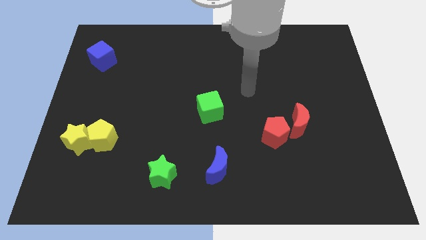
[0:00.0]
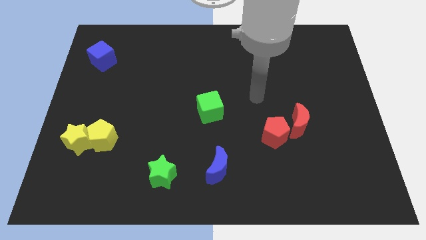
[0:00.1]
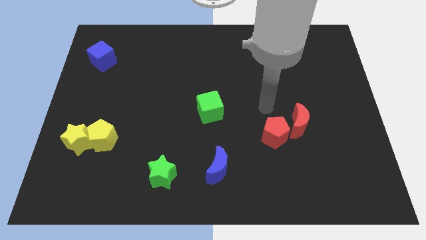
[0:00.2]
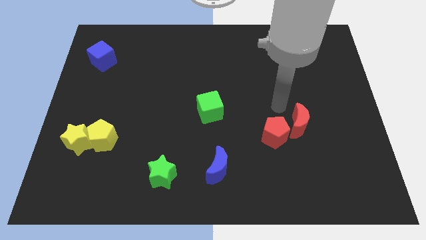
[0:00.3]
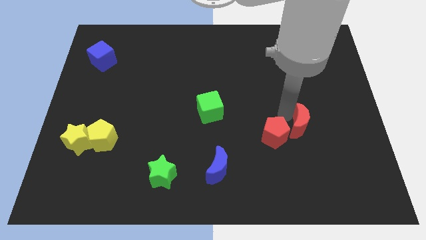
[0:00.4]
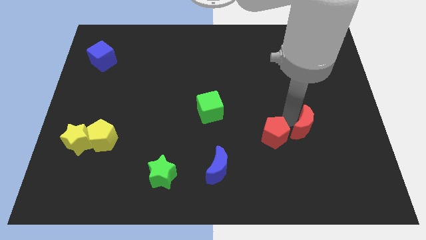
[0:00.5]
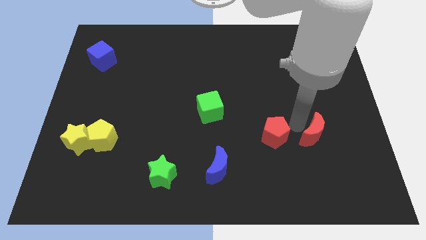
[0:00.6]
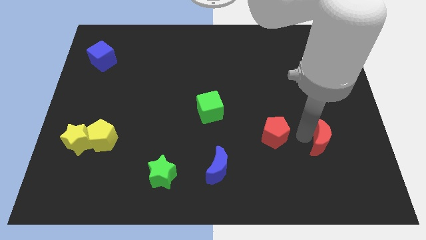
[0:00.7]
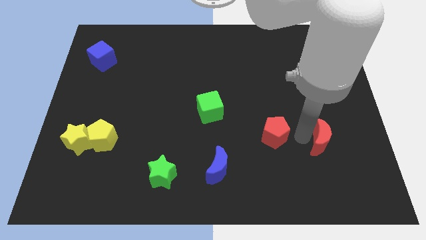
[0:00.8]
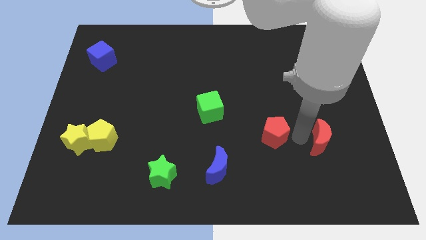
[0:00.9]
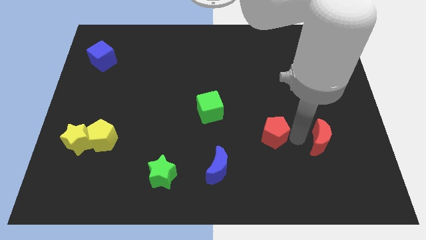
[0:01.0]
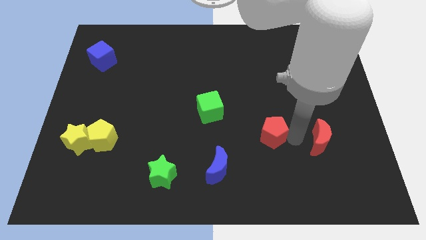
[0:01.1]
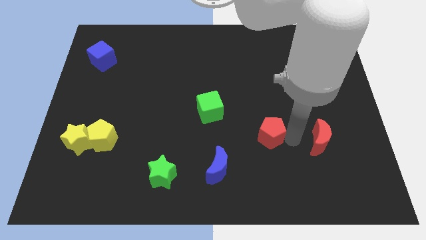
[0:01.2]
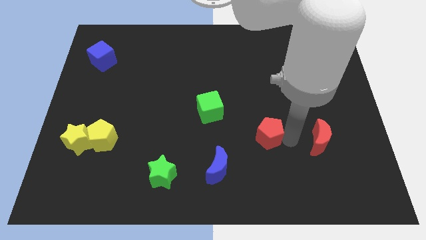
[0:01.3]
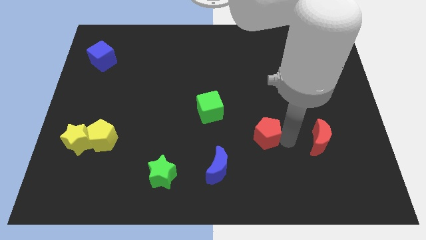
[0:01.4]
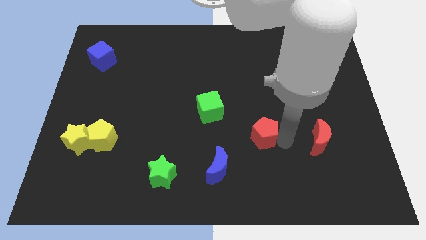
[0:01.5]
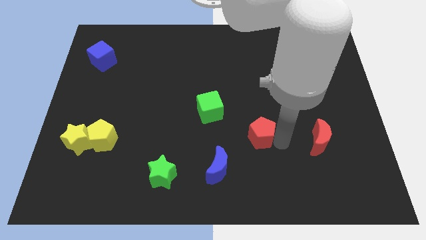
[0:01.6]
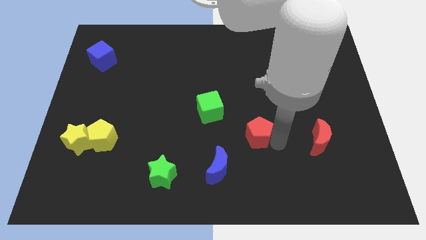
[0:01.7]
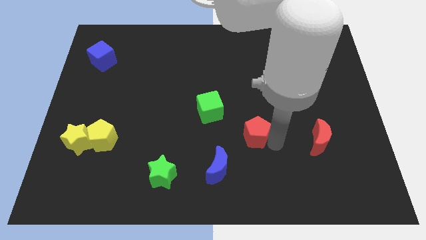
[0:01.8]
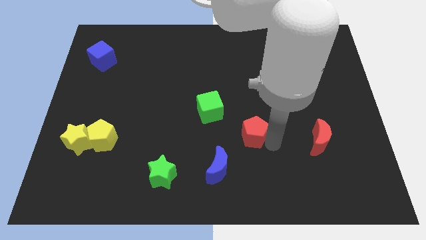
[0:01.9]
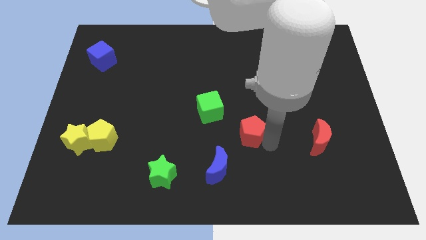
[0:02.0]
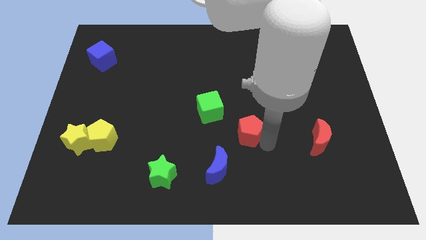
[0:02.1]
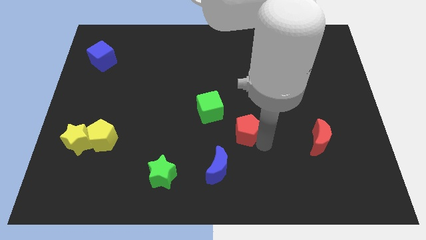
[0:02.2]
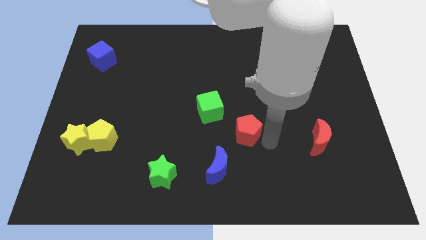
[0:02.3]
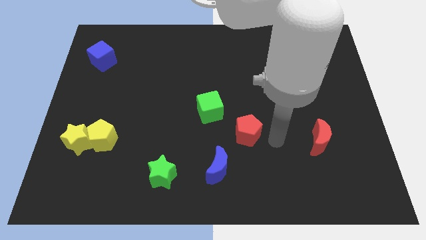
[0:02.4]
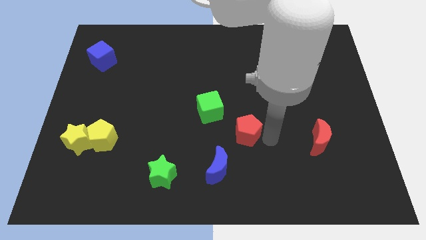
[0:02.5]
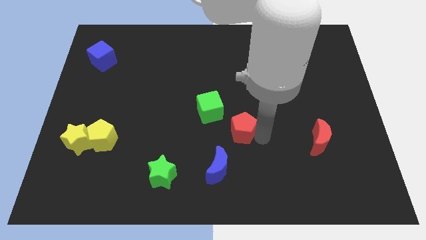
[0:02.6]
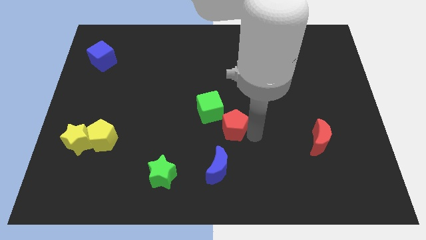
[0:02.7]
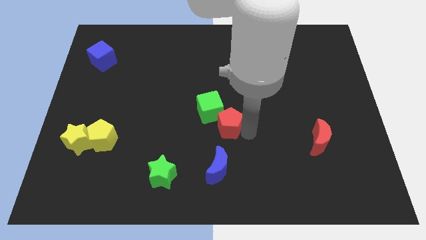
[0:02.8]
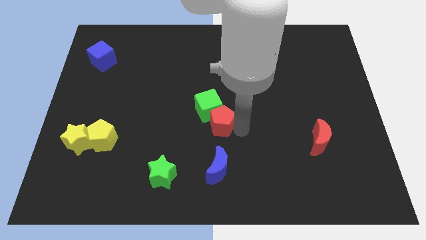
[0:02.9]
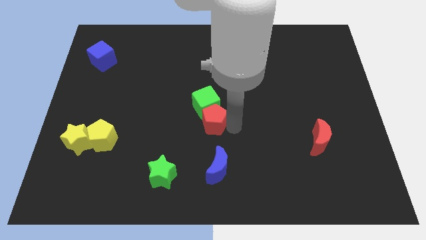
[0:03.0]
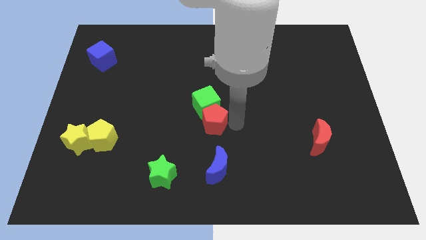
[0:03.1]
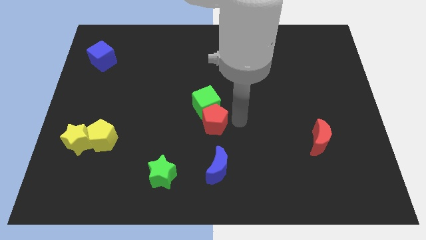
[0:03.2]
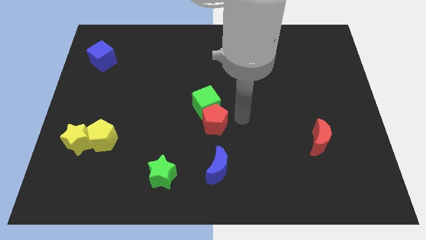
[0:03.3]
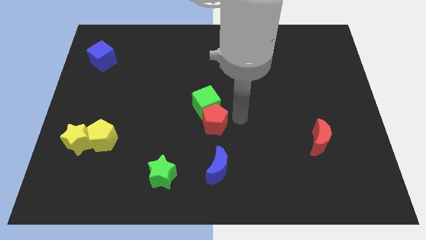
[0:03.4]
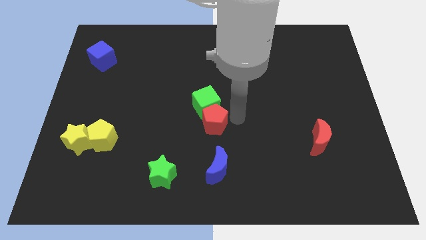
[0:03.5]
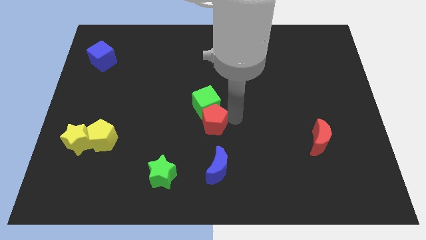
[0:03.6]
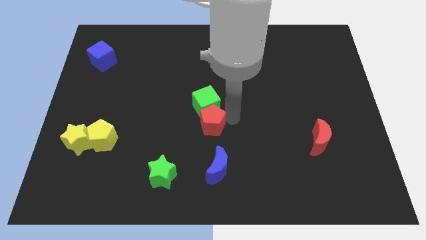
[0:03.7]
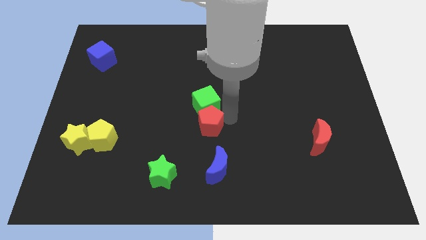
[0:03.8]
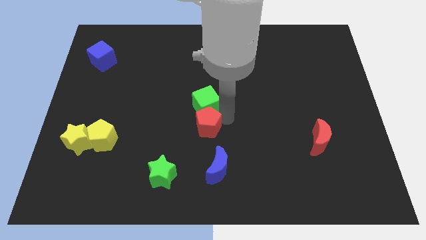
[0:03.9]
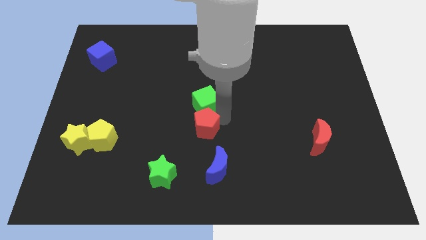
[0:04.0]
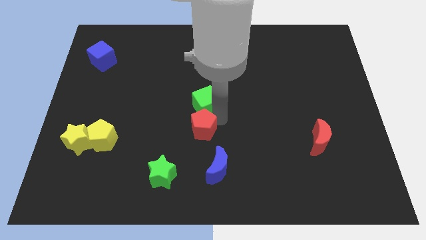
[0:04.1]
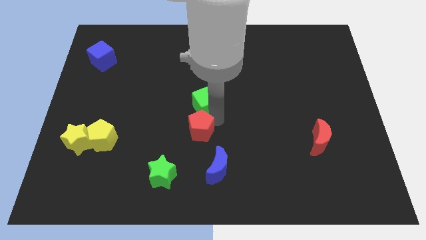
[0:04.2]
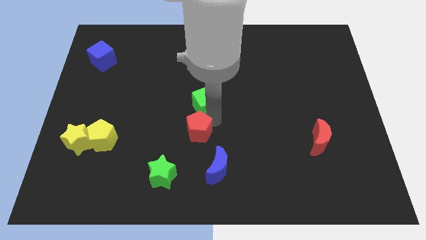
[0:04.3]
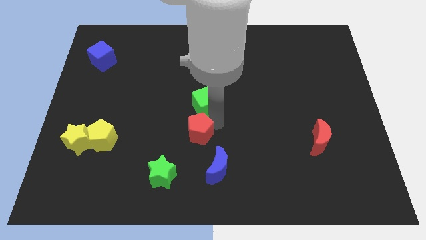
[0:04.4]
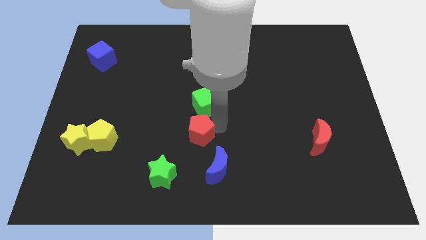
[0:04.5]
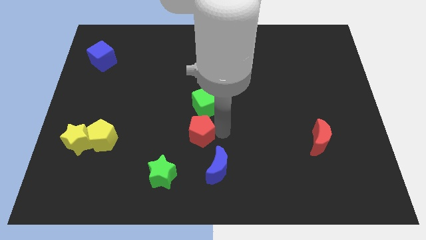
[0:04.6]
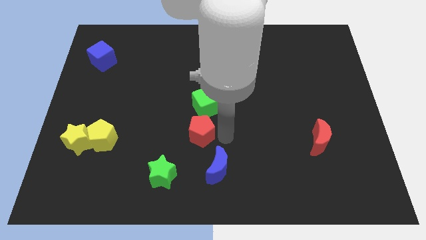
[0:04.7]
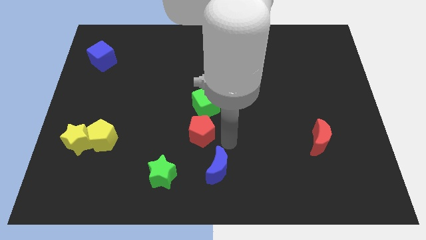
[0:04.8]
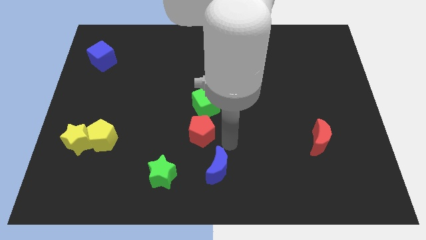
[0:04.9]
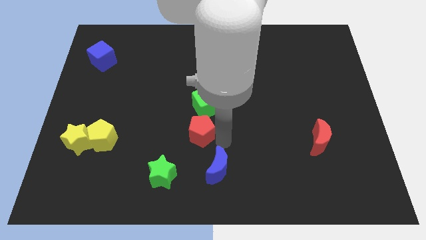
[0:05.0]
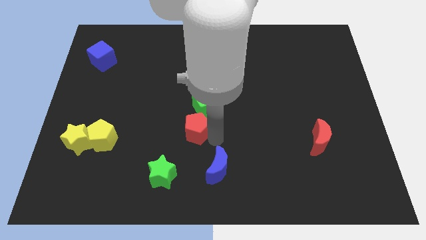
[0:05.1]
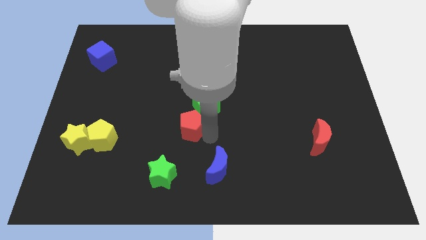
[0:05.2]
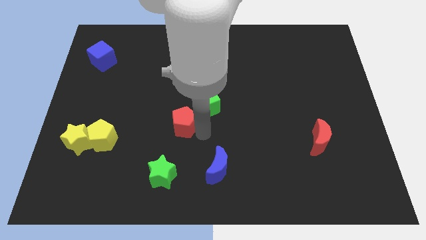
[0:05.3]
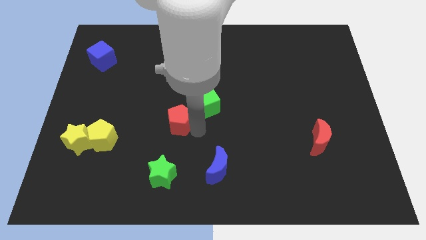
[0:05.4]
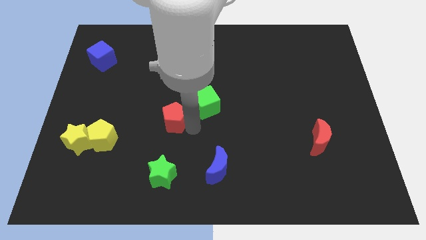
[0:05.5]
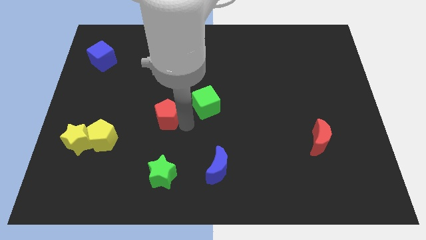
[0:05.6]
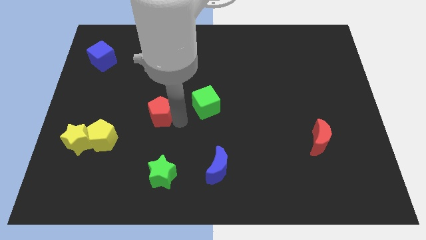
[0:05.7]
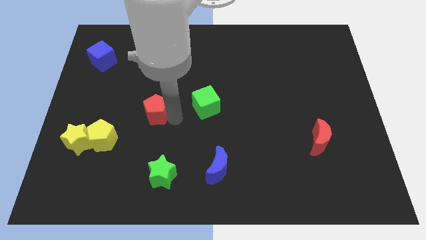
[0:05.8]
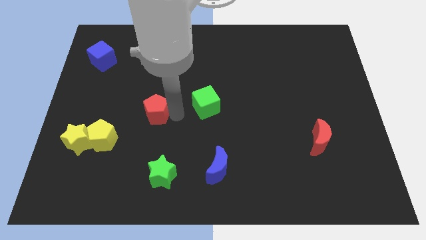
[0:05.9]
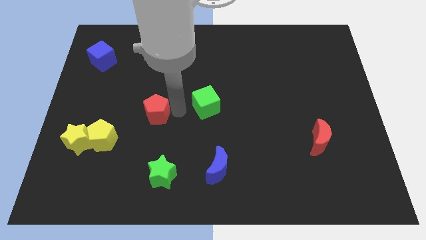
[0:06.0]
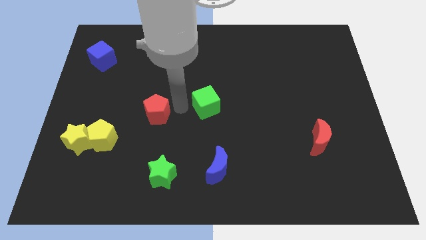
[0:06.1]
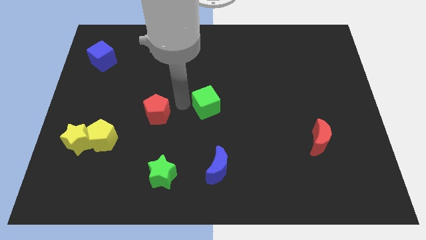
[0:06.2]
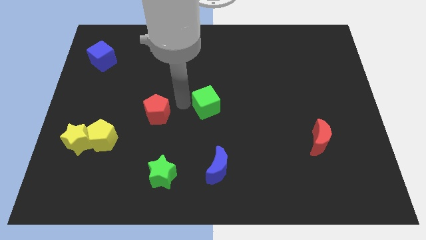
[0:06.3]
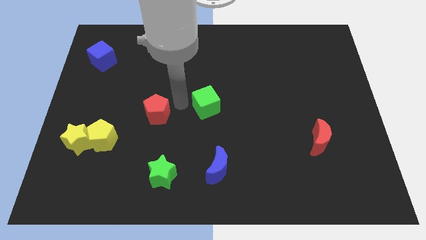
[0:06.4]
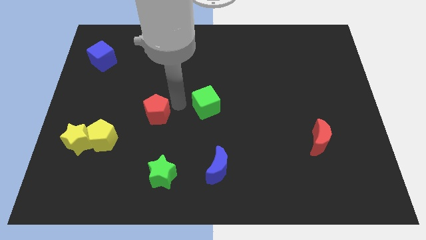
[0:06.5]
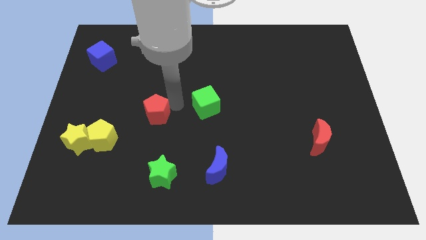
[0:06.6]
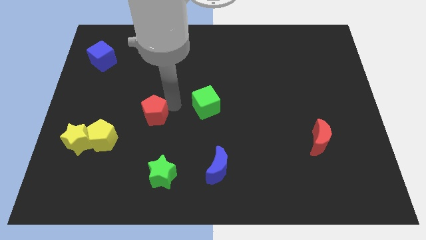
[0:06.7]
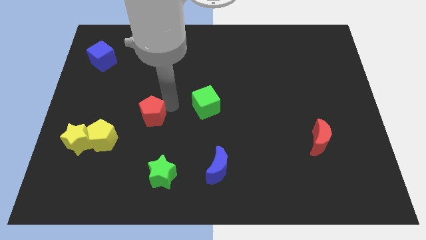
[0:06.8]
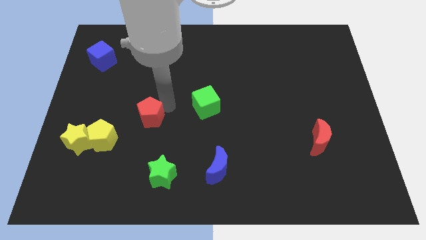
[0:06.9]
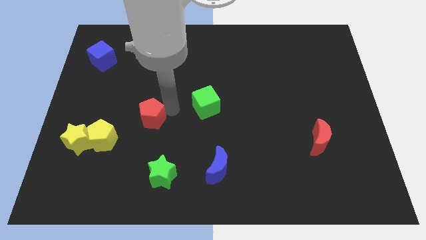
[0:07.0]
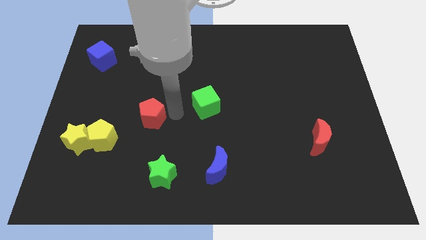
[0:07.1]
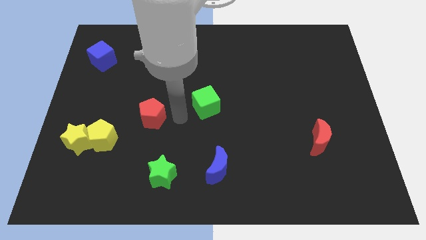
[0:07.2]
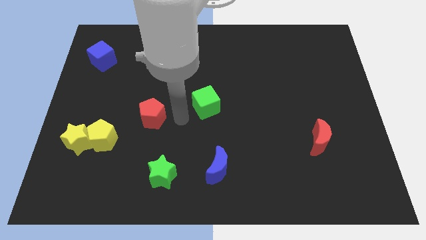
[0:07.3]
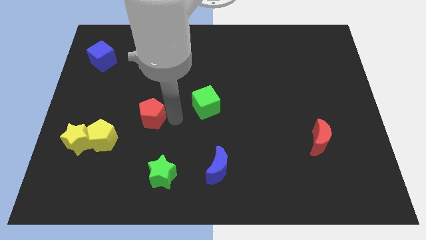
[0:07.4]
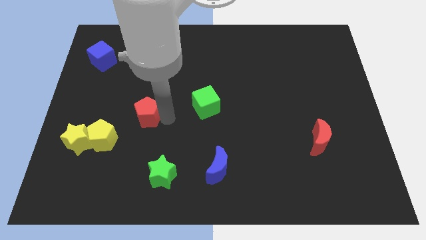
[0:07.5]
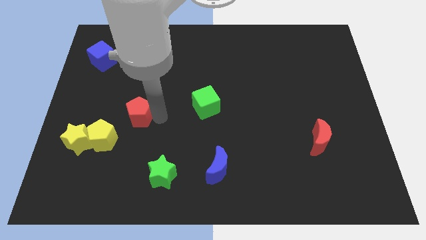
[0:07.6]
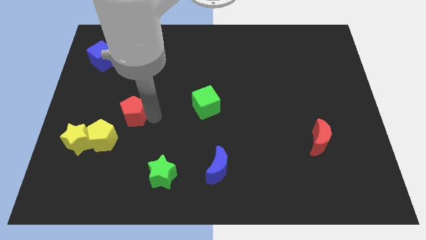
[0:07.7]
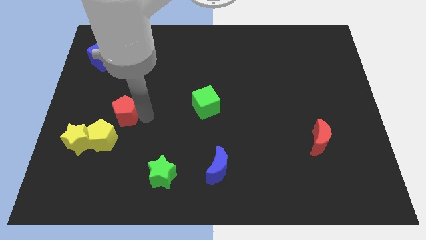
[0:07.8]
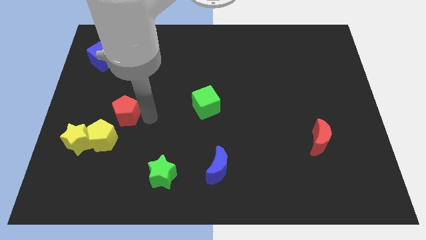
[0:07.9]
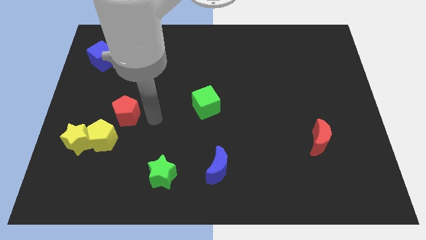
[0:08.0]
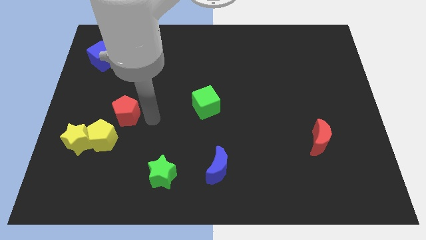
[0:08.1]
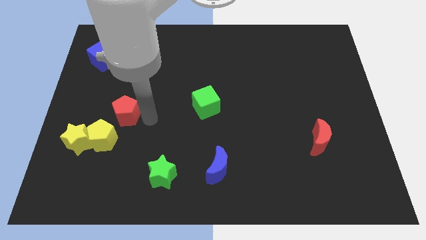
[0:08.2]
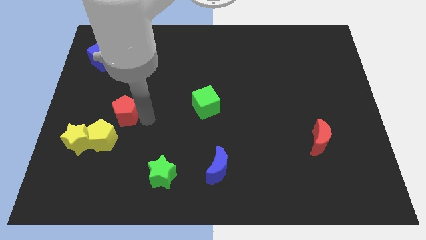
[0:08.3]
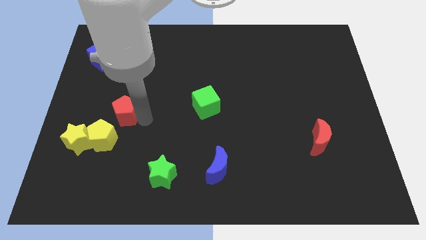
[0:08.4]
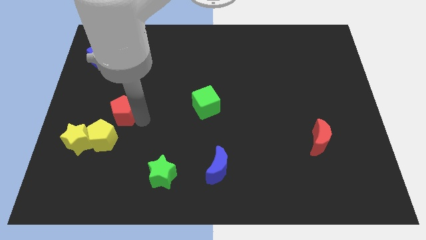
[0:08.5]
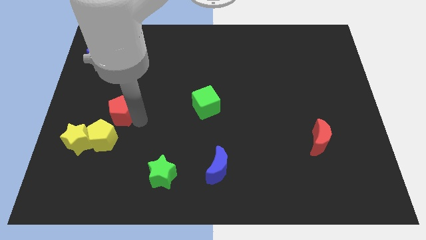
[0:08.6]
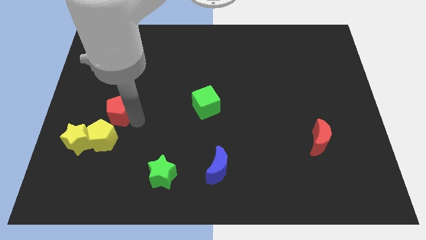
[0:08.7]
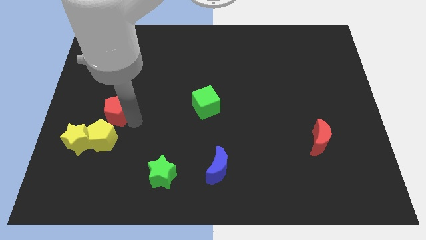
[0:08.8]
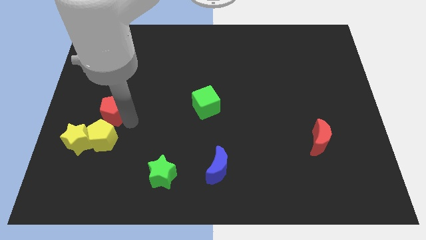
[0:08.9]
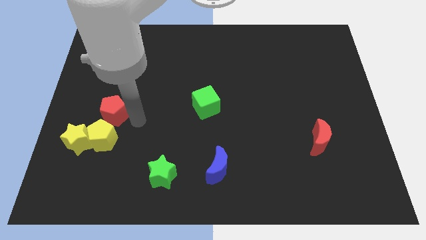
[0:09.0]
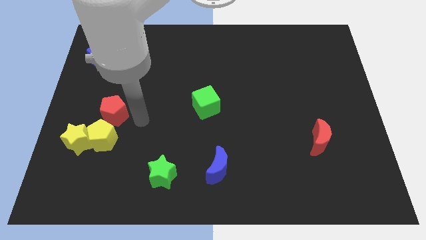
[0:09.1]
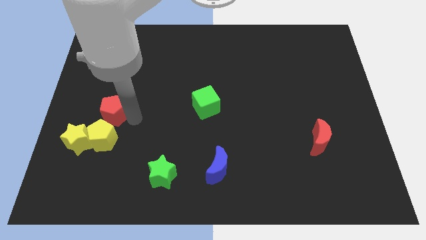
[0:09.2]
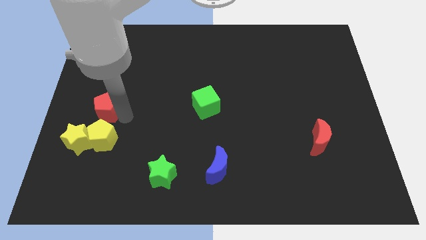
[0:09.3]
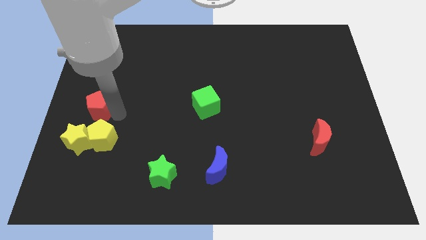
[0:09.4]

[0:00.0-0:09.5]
slide the red pentagon to the left side of the board
